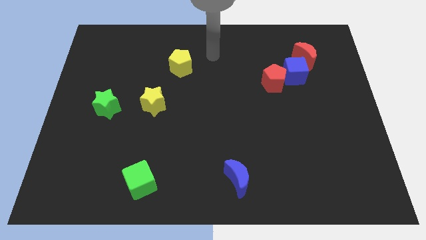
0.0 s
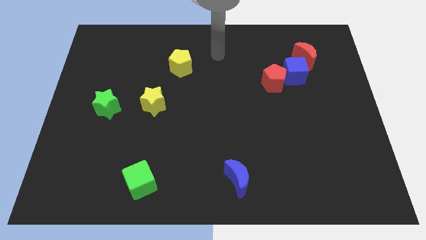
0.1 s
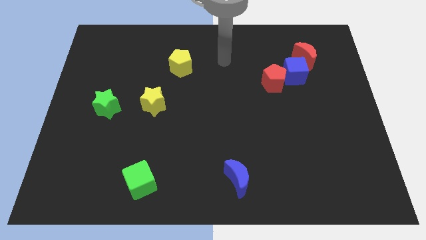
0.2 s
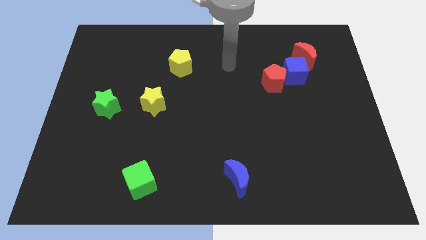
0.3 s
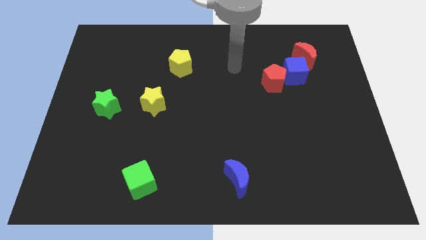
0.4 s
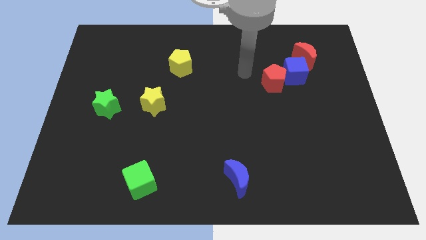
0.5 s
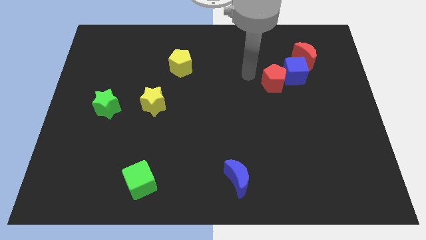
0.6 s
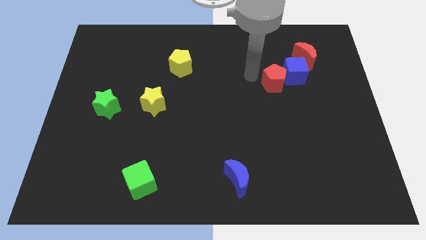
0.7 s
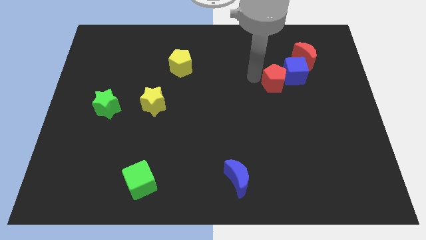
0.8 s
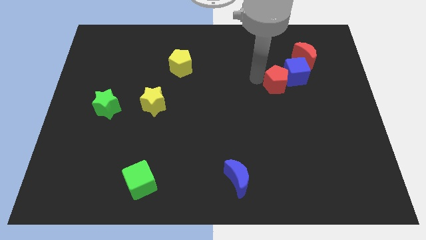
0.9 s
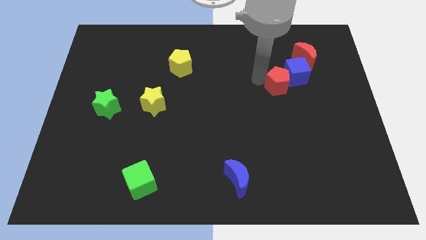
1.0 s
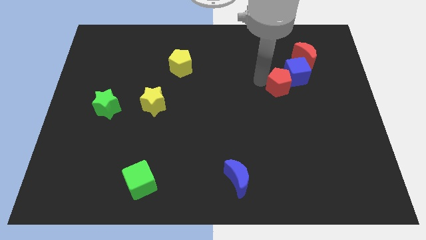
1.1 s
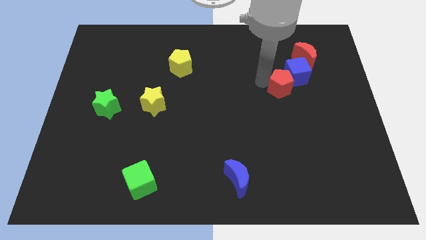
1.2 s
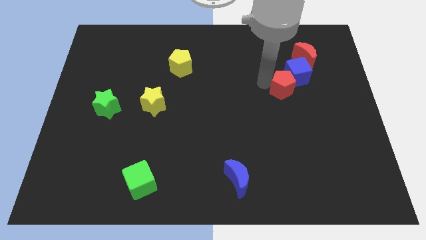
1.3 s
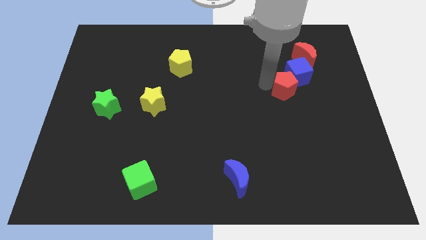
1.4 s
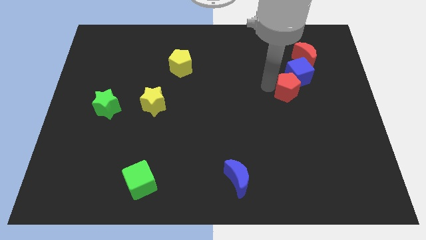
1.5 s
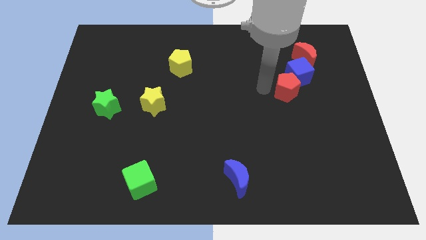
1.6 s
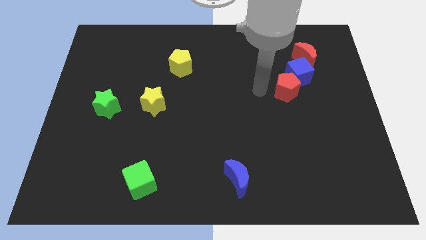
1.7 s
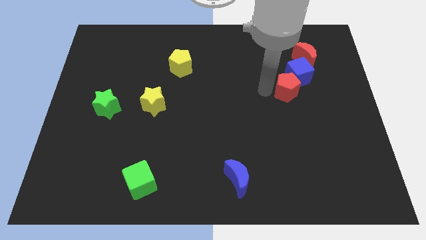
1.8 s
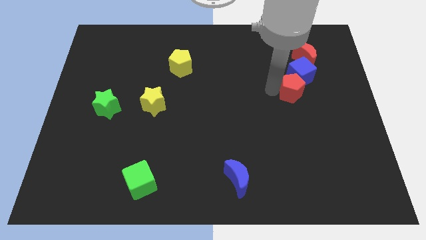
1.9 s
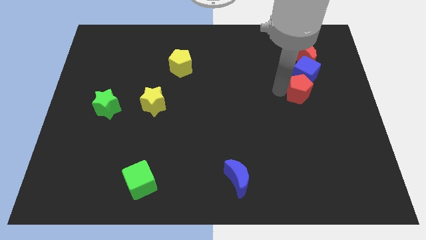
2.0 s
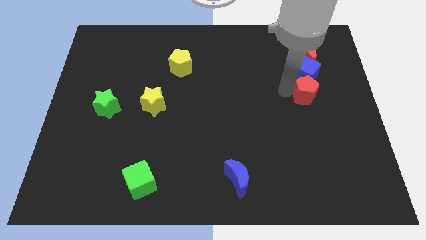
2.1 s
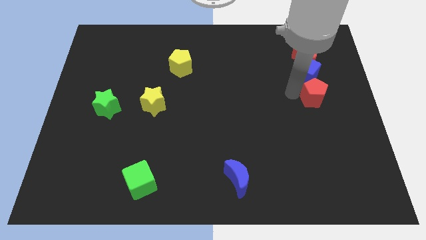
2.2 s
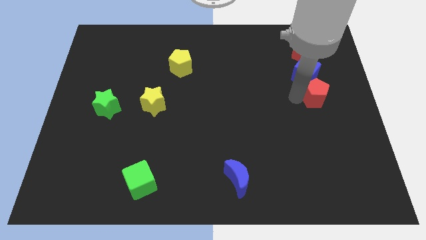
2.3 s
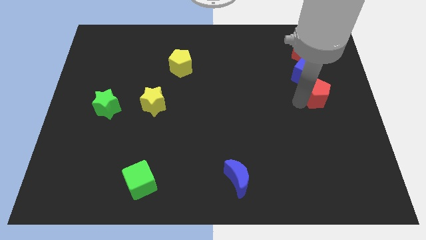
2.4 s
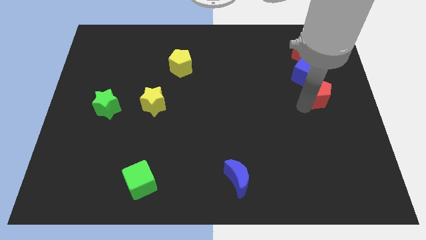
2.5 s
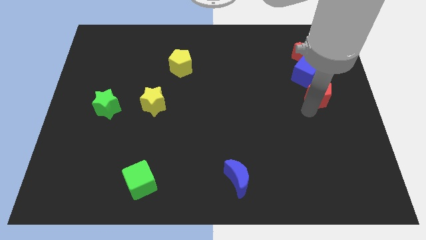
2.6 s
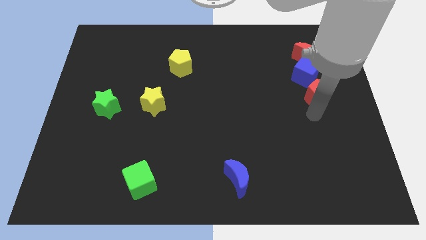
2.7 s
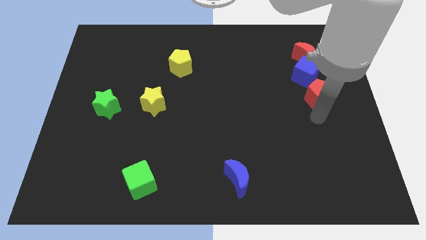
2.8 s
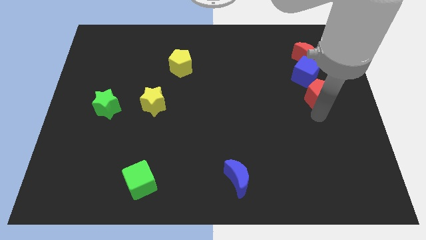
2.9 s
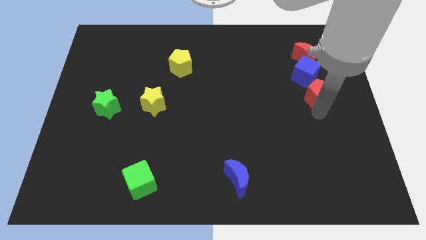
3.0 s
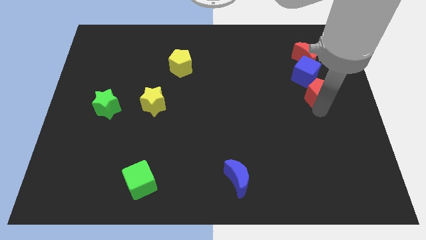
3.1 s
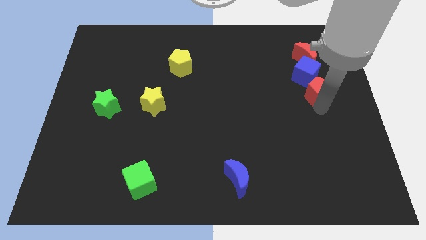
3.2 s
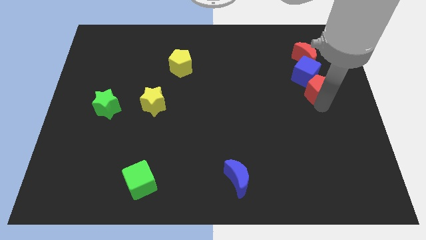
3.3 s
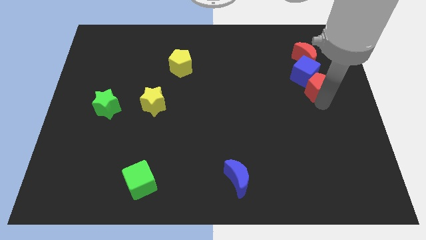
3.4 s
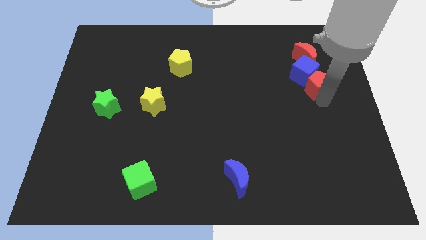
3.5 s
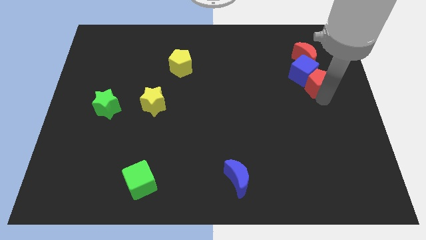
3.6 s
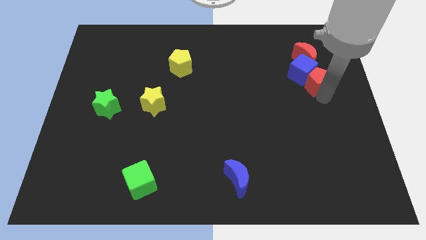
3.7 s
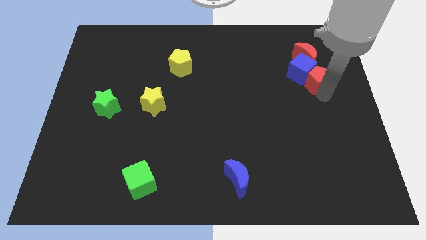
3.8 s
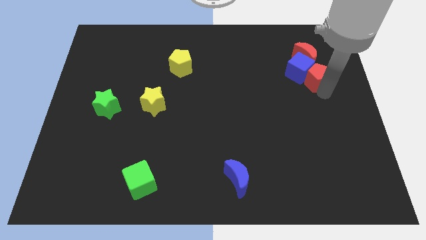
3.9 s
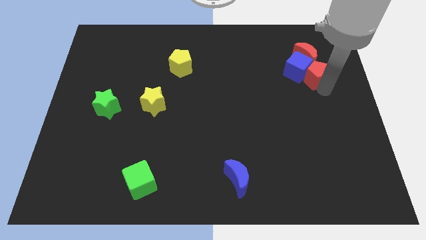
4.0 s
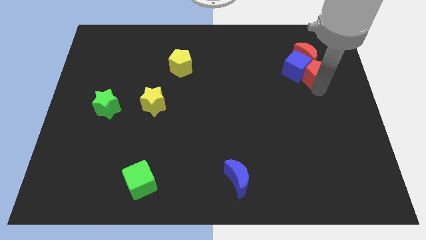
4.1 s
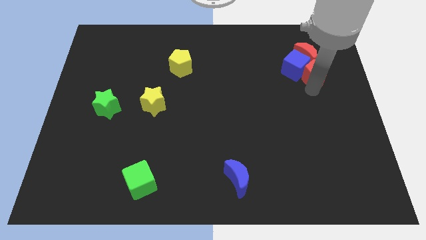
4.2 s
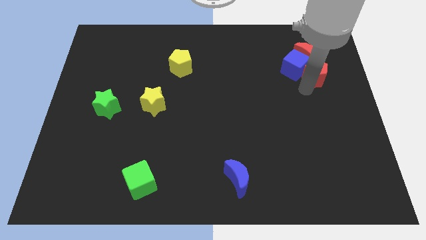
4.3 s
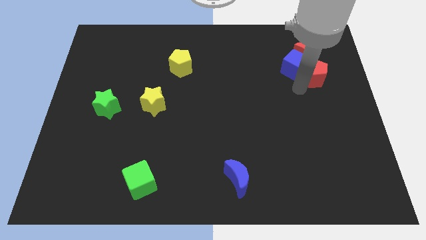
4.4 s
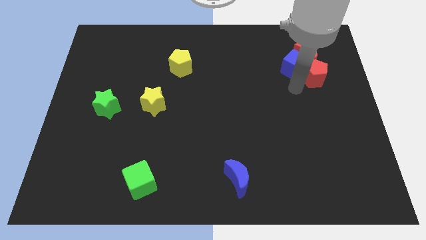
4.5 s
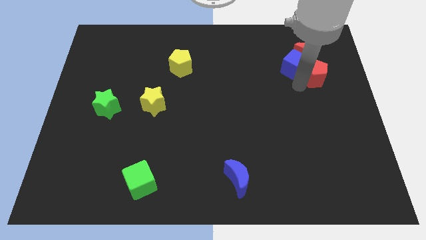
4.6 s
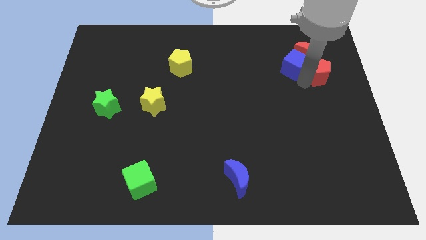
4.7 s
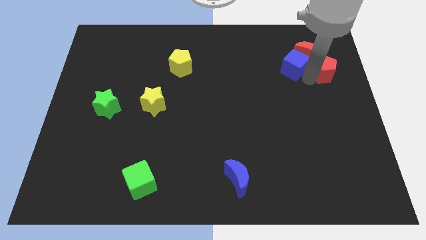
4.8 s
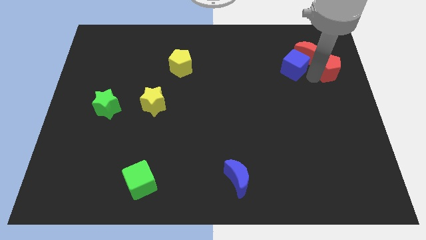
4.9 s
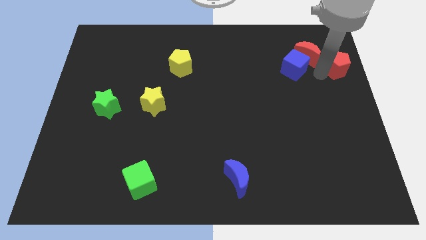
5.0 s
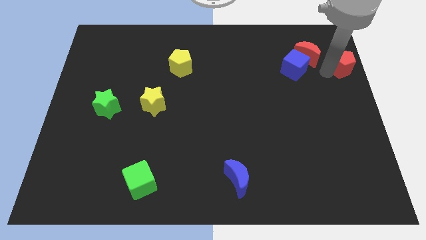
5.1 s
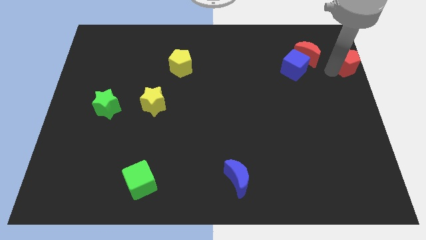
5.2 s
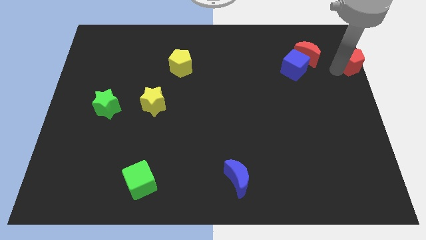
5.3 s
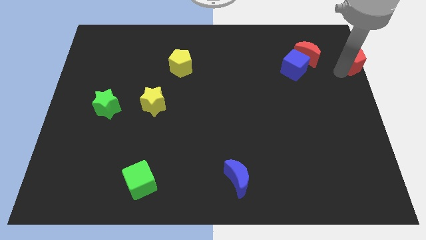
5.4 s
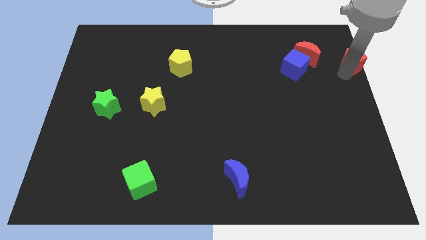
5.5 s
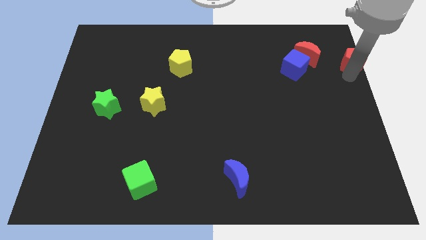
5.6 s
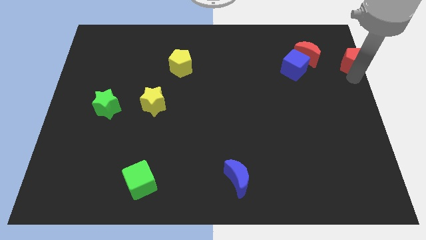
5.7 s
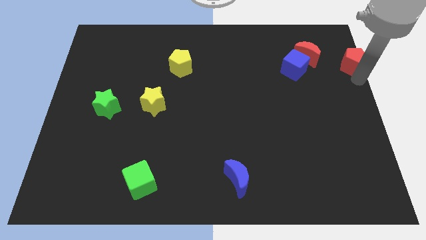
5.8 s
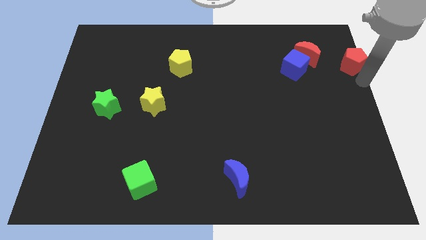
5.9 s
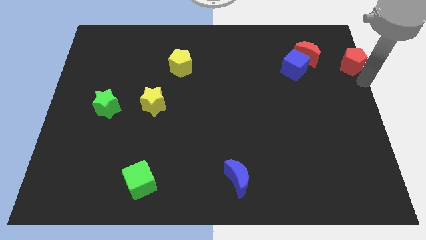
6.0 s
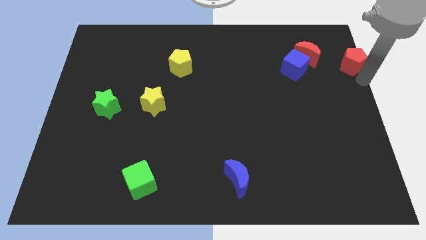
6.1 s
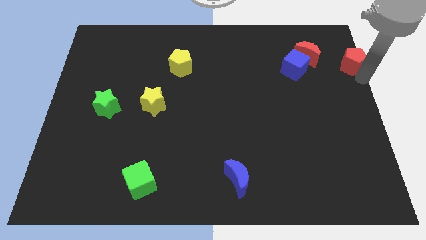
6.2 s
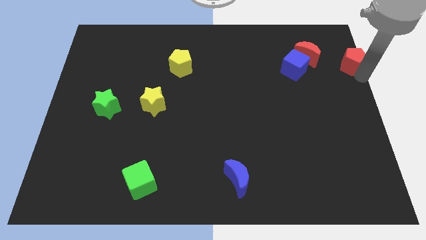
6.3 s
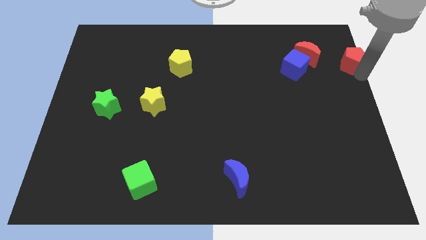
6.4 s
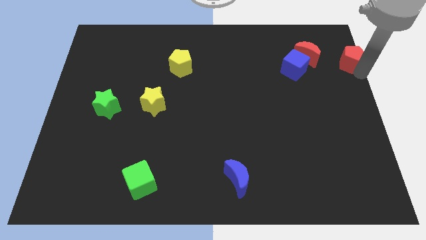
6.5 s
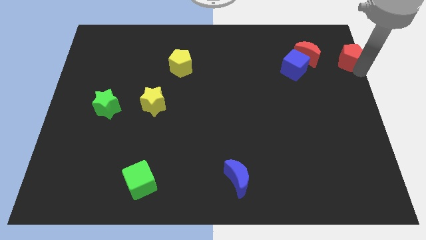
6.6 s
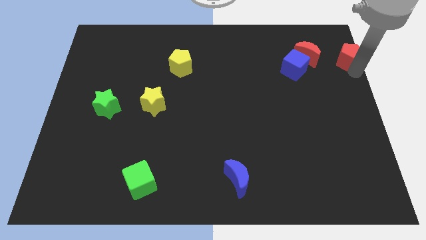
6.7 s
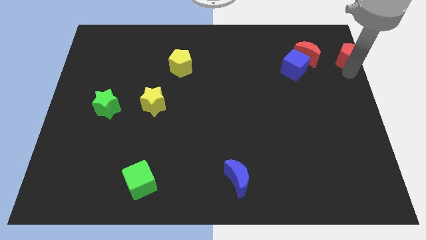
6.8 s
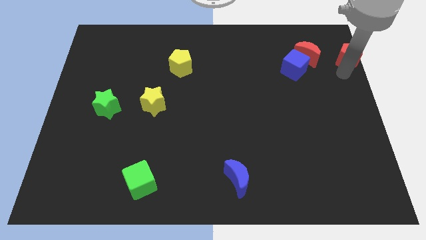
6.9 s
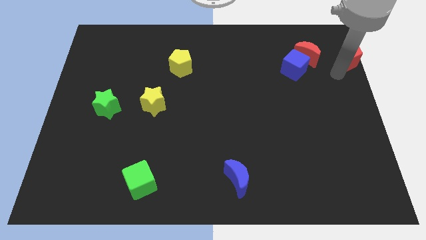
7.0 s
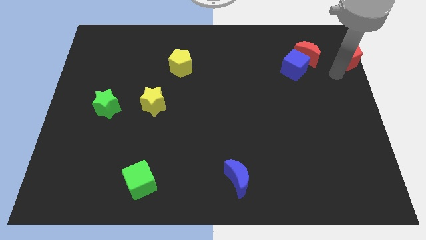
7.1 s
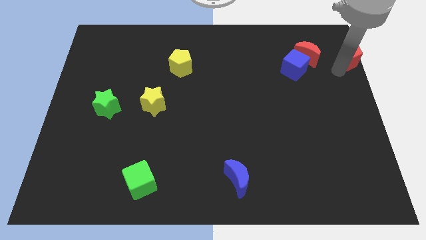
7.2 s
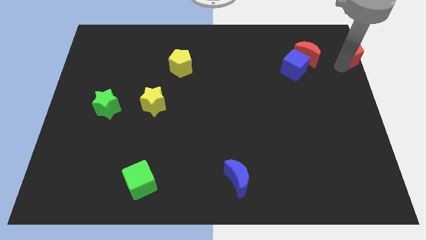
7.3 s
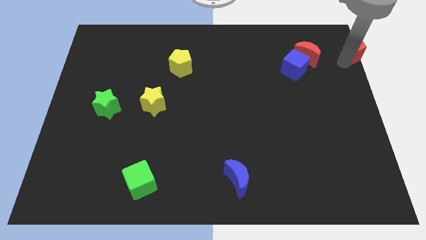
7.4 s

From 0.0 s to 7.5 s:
push the red pentagon to the top right
